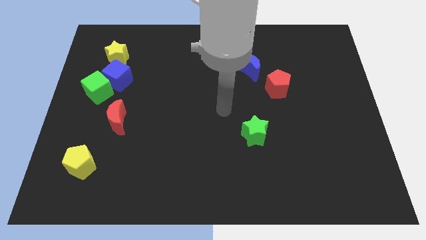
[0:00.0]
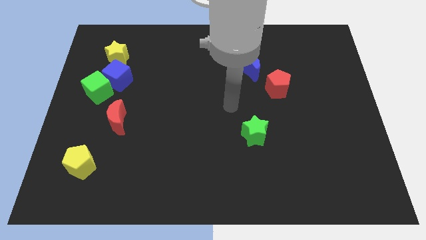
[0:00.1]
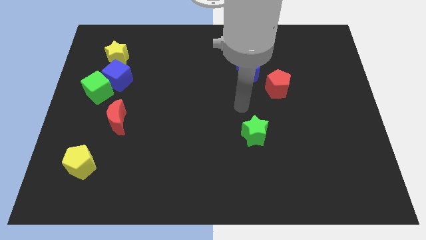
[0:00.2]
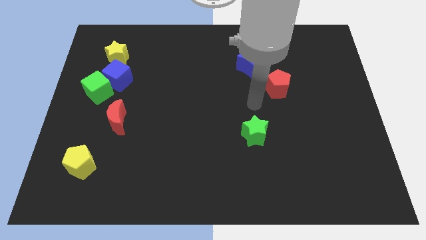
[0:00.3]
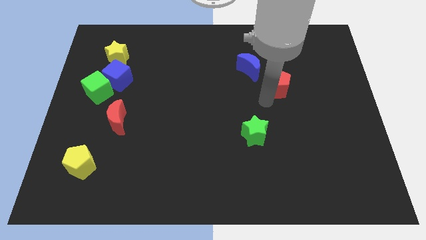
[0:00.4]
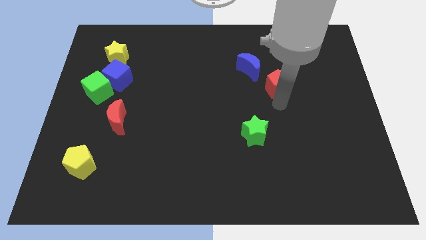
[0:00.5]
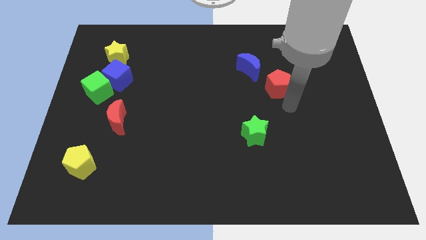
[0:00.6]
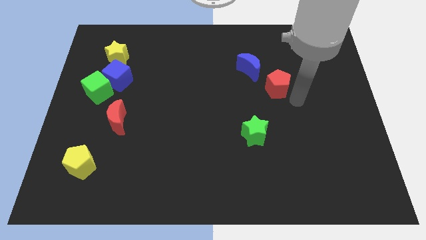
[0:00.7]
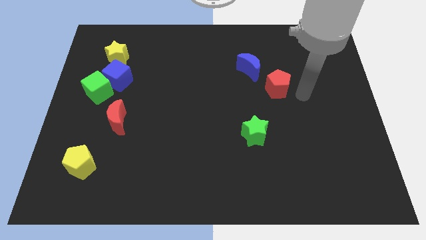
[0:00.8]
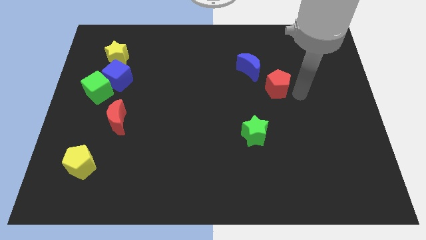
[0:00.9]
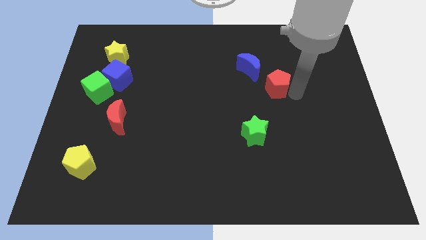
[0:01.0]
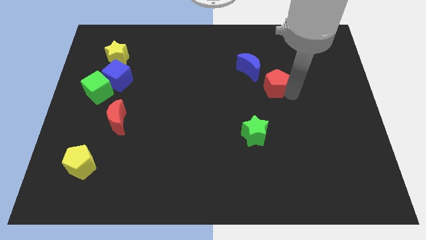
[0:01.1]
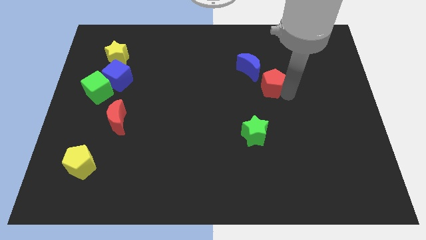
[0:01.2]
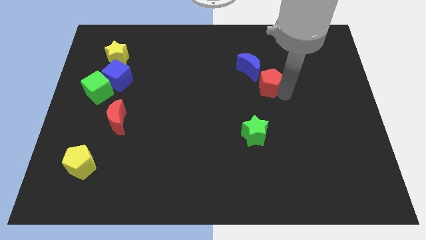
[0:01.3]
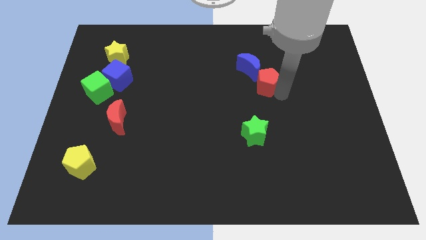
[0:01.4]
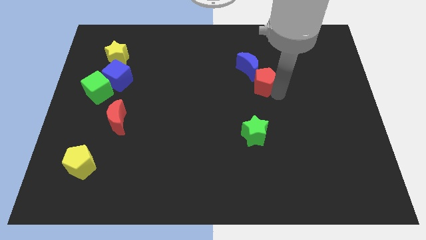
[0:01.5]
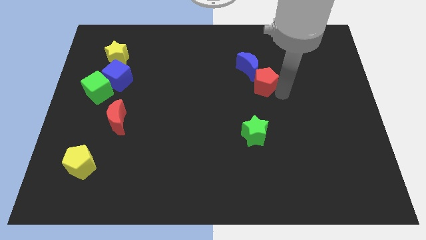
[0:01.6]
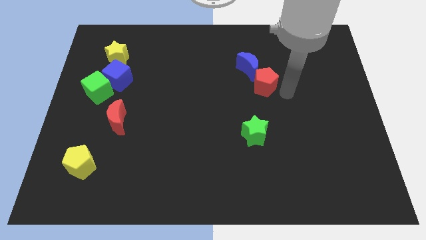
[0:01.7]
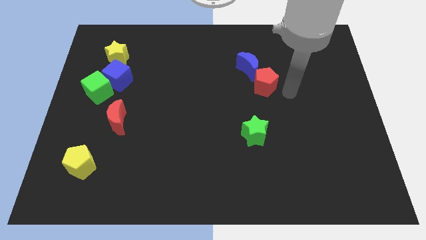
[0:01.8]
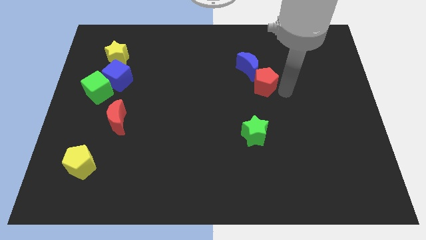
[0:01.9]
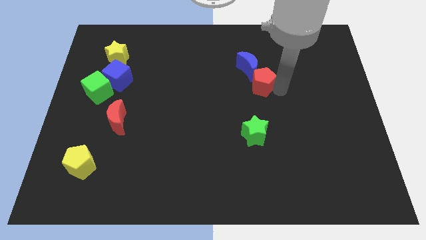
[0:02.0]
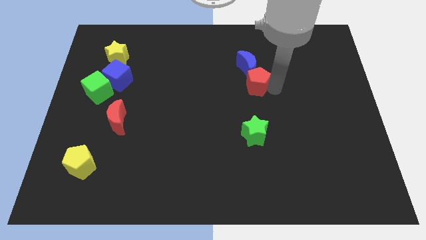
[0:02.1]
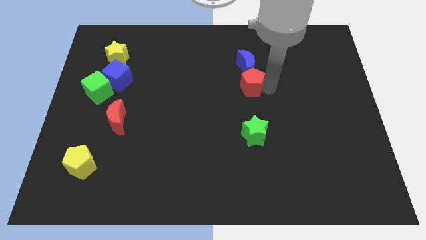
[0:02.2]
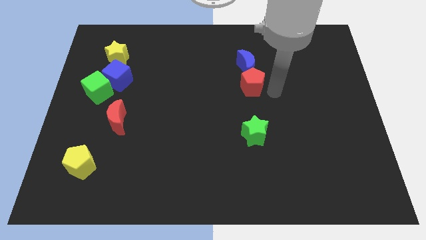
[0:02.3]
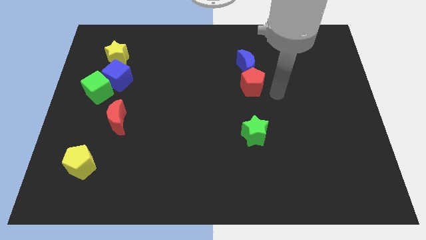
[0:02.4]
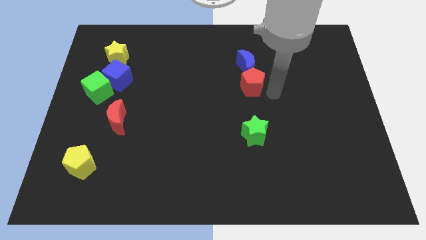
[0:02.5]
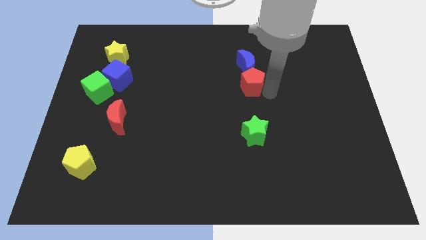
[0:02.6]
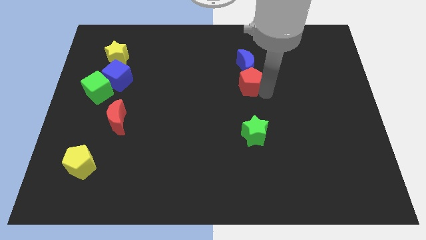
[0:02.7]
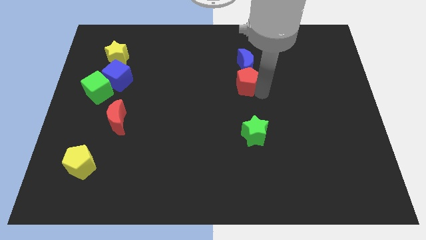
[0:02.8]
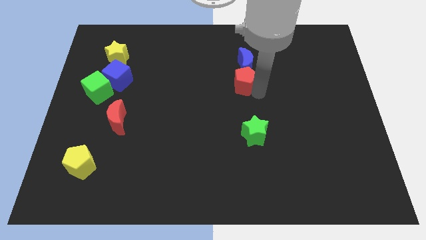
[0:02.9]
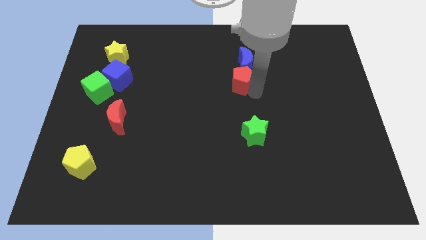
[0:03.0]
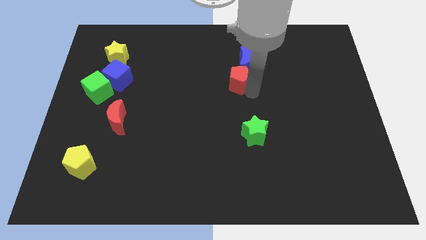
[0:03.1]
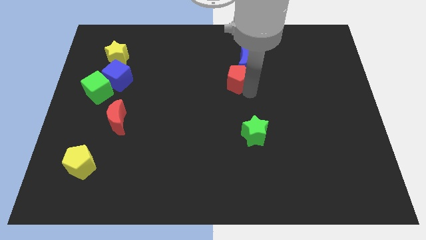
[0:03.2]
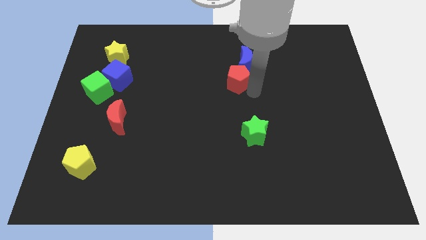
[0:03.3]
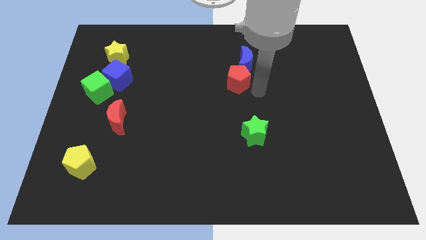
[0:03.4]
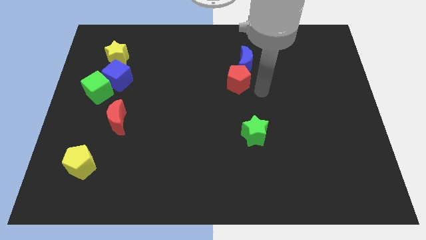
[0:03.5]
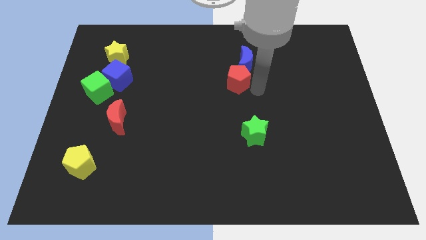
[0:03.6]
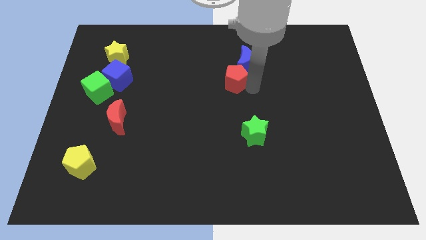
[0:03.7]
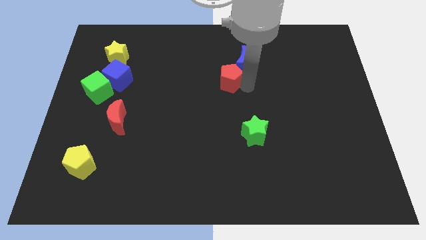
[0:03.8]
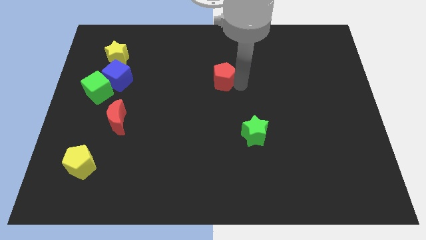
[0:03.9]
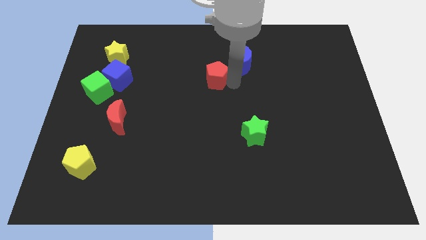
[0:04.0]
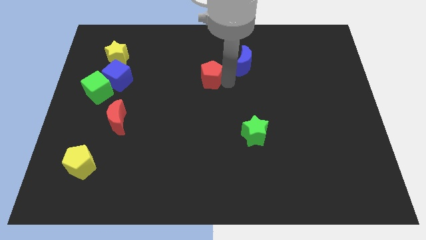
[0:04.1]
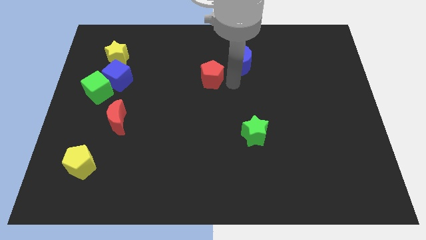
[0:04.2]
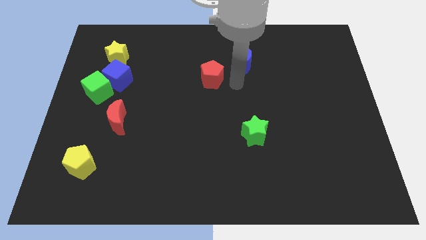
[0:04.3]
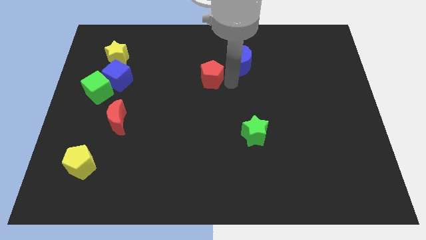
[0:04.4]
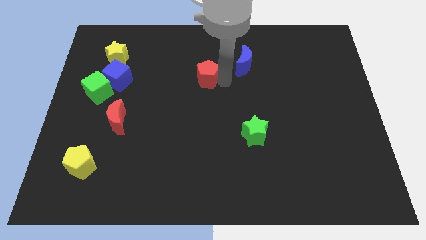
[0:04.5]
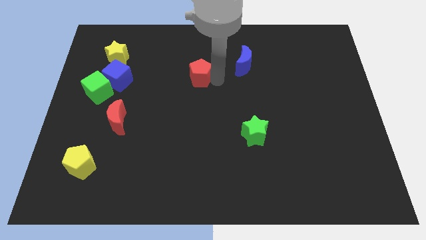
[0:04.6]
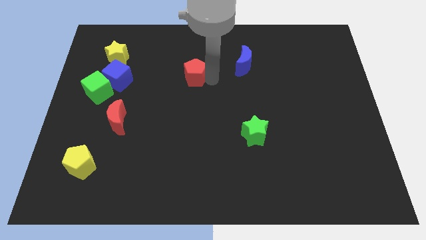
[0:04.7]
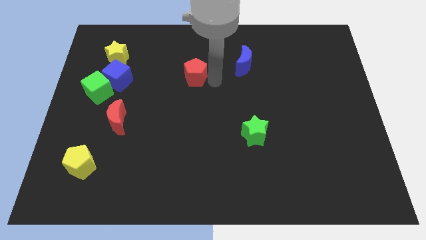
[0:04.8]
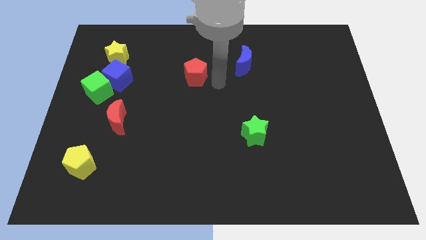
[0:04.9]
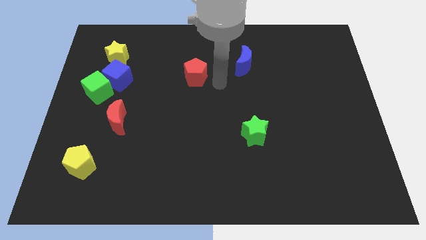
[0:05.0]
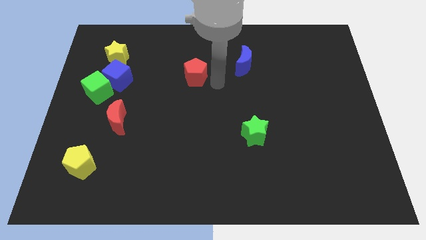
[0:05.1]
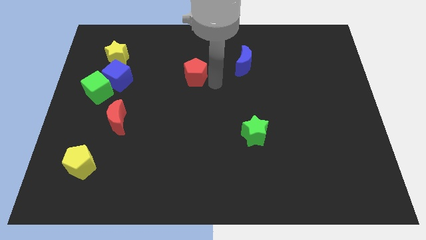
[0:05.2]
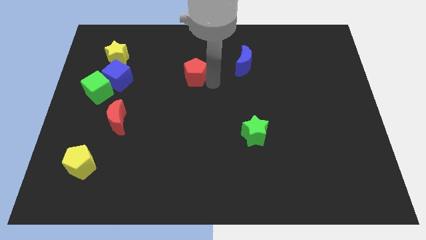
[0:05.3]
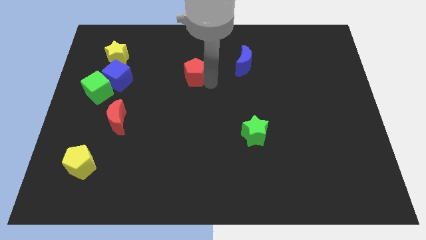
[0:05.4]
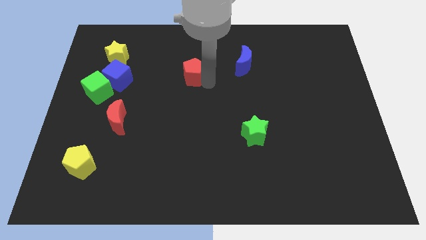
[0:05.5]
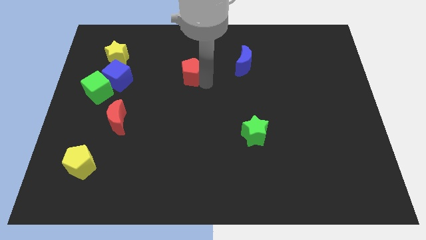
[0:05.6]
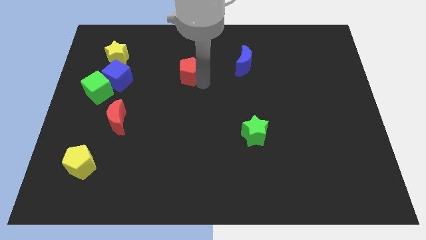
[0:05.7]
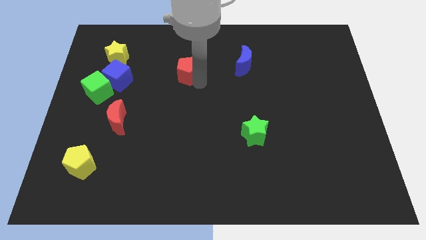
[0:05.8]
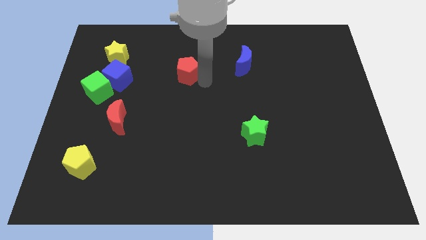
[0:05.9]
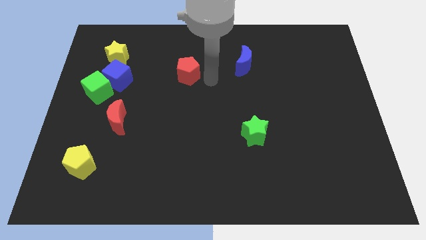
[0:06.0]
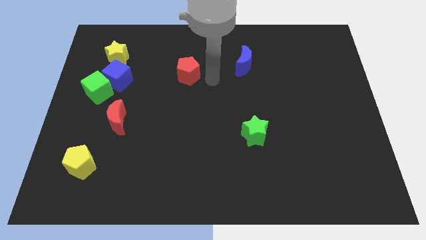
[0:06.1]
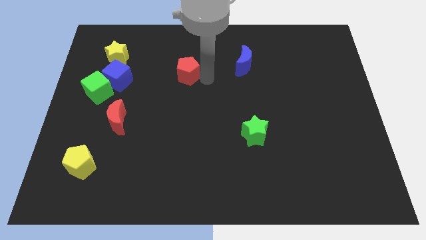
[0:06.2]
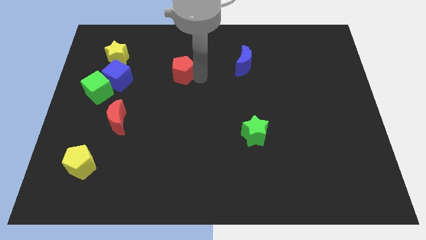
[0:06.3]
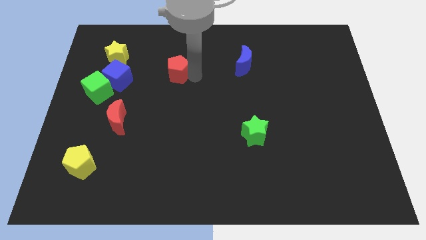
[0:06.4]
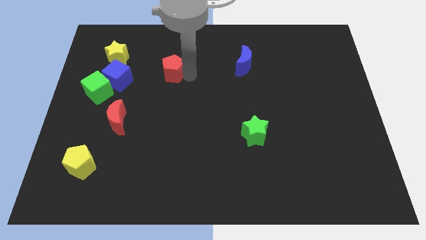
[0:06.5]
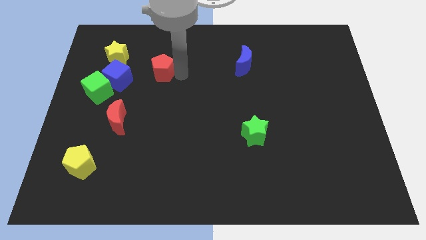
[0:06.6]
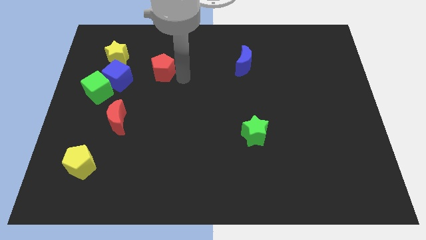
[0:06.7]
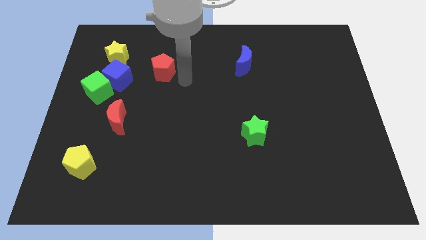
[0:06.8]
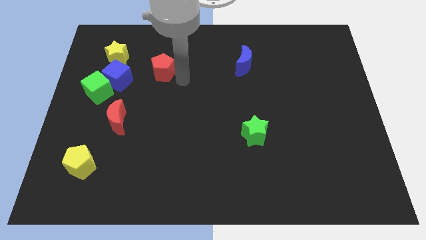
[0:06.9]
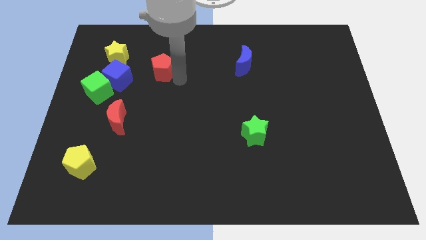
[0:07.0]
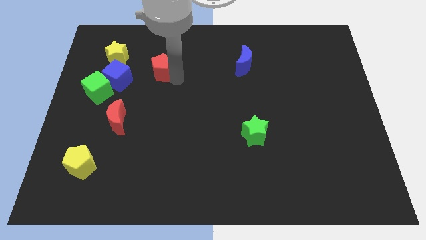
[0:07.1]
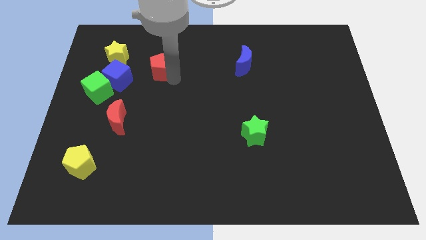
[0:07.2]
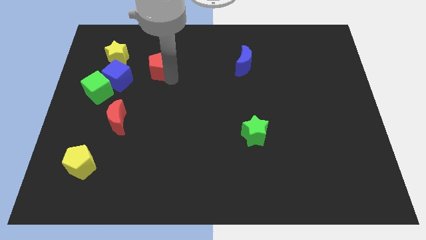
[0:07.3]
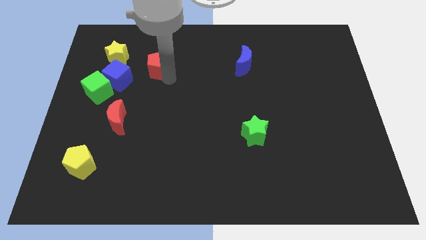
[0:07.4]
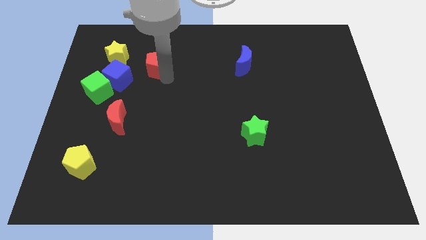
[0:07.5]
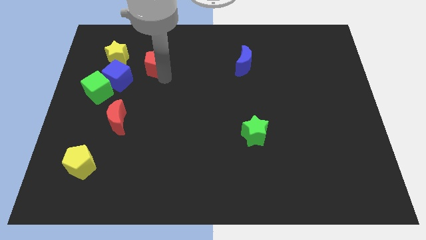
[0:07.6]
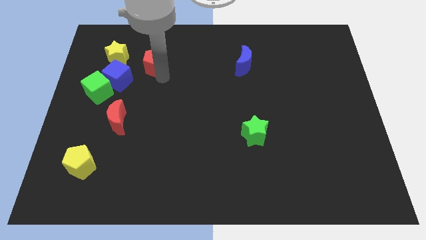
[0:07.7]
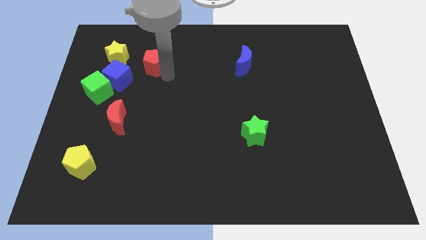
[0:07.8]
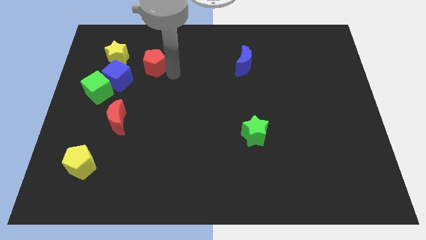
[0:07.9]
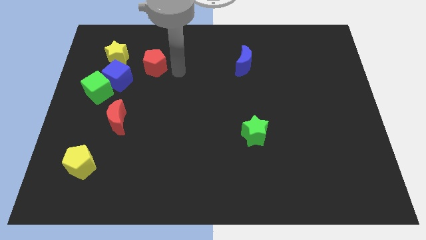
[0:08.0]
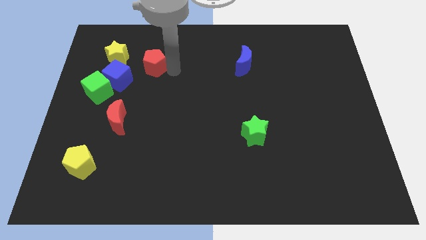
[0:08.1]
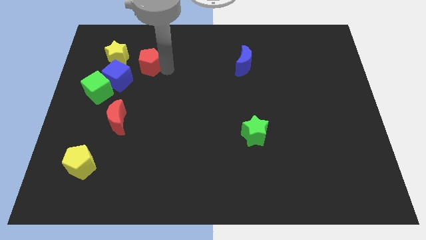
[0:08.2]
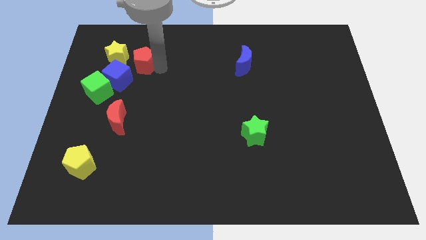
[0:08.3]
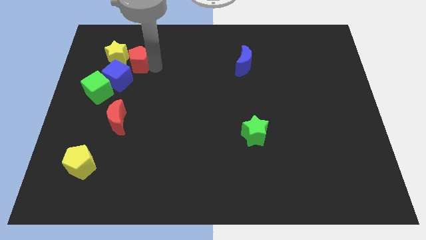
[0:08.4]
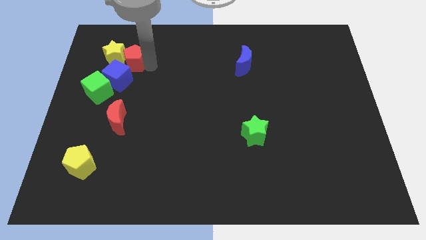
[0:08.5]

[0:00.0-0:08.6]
slide the red pentagon next to the yellow star
